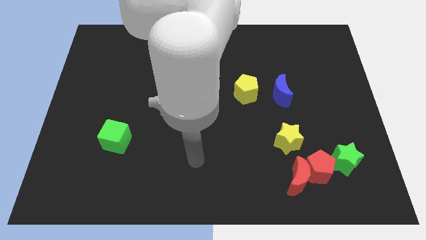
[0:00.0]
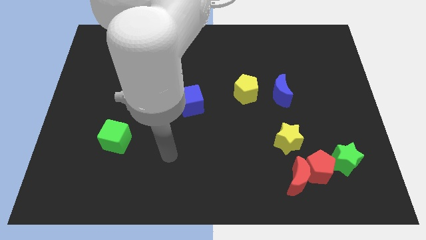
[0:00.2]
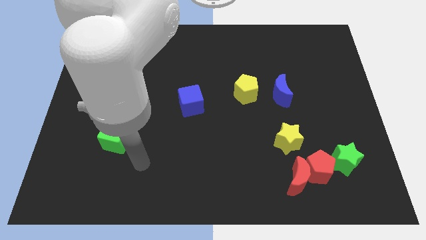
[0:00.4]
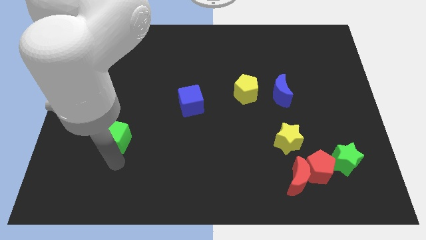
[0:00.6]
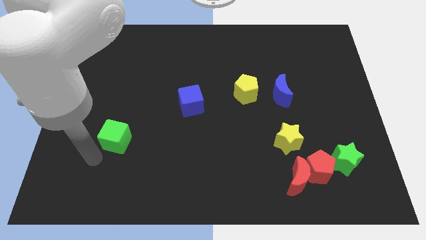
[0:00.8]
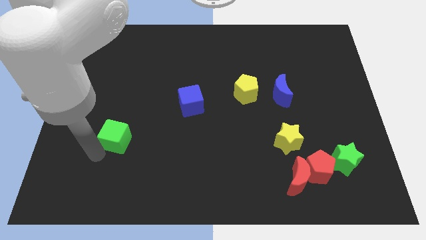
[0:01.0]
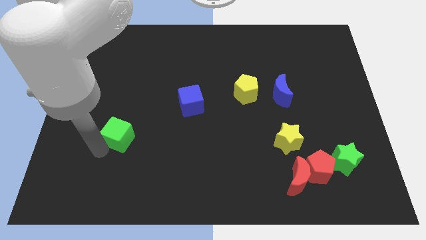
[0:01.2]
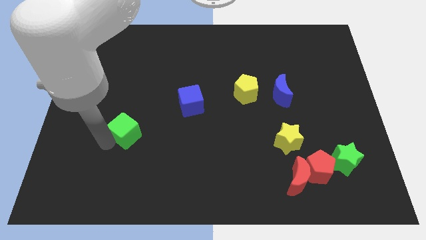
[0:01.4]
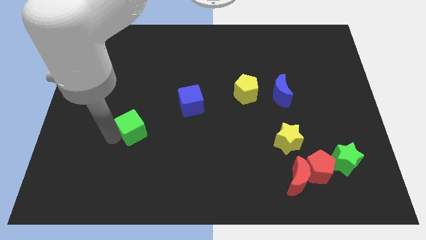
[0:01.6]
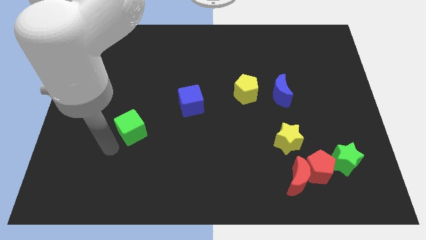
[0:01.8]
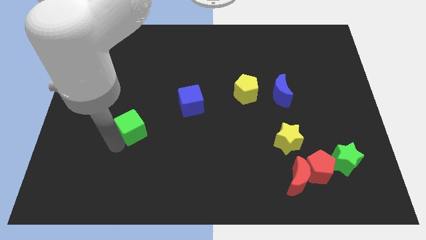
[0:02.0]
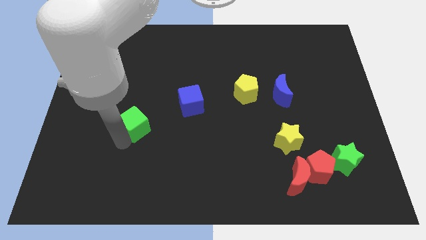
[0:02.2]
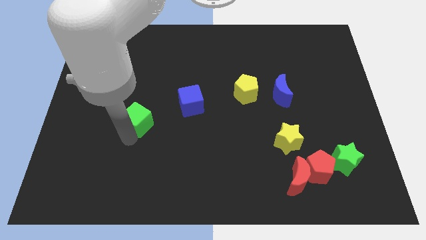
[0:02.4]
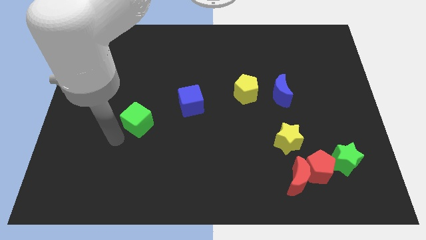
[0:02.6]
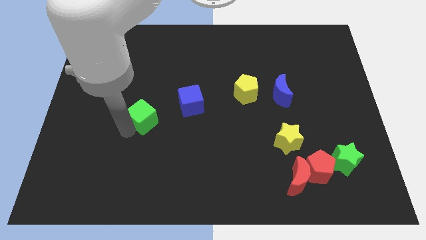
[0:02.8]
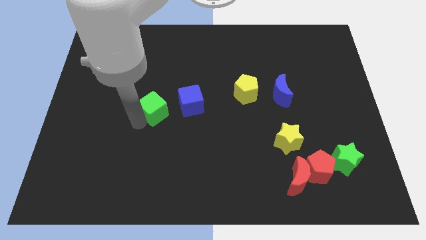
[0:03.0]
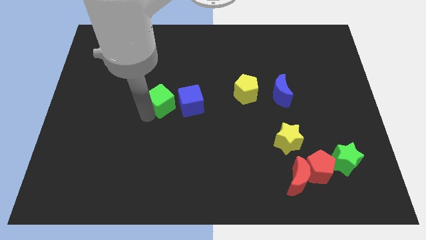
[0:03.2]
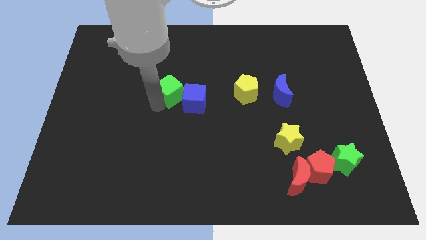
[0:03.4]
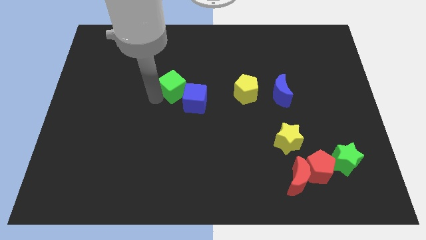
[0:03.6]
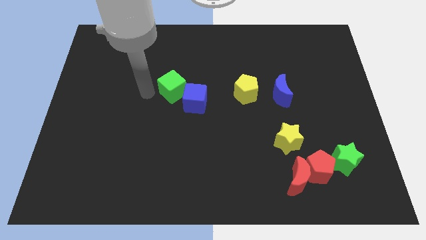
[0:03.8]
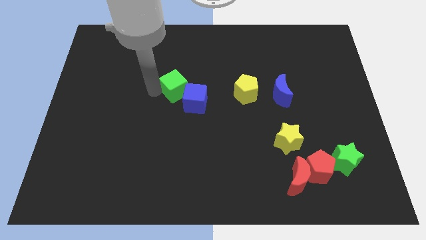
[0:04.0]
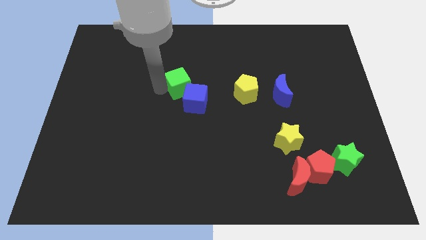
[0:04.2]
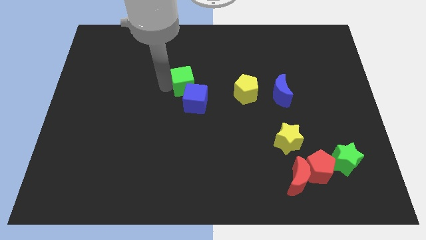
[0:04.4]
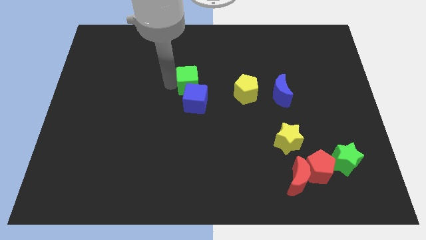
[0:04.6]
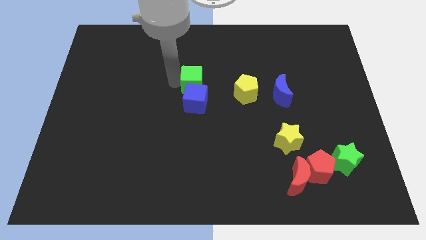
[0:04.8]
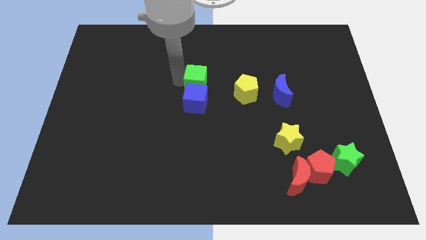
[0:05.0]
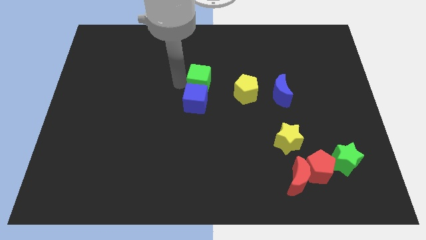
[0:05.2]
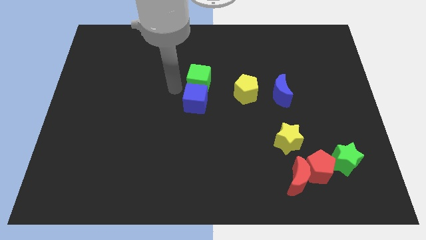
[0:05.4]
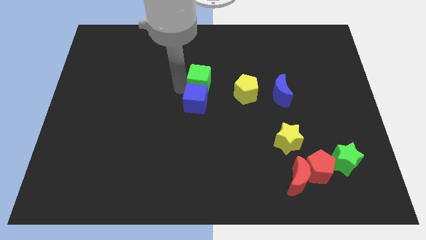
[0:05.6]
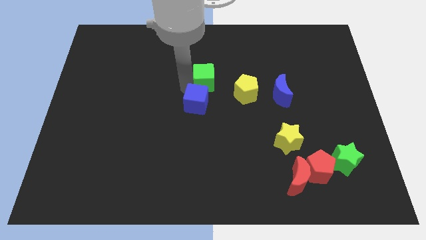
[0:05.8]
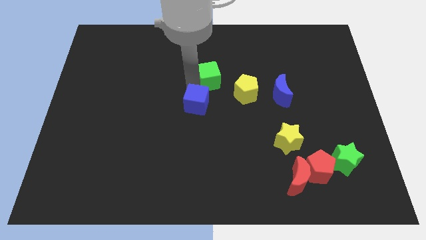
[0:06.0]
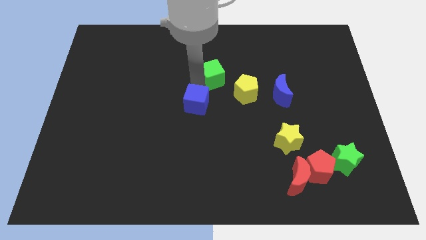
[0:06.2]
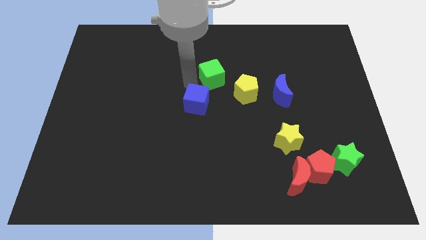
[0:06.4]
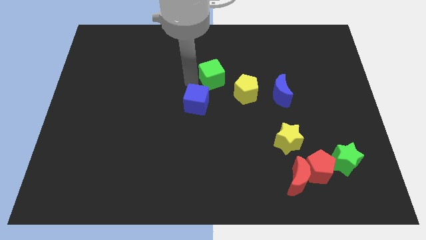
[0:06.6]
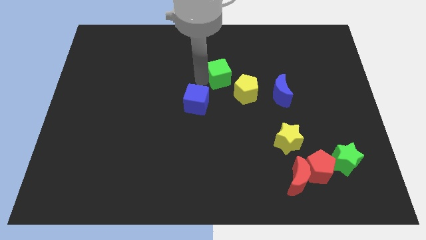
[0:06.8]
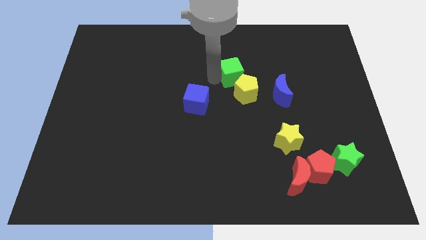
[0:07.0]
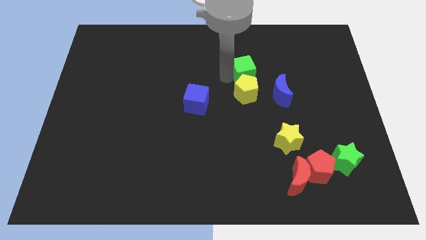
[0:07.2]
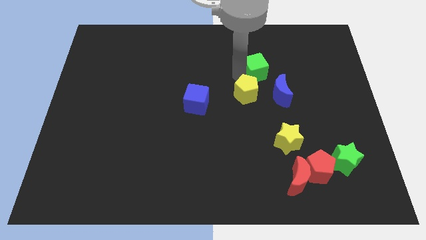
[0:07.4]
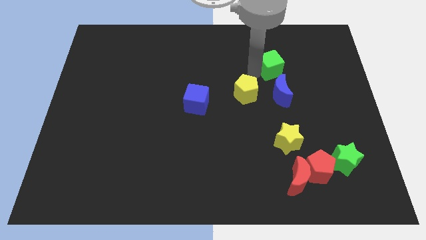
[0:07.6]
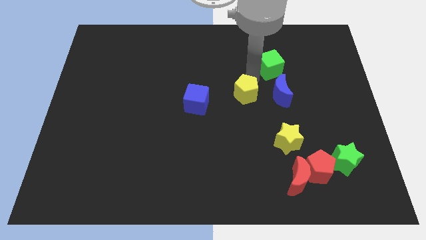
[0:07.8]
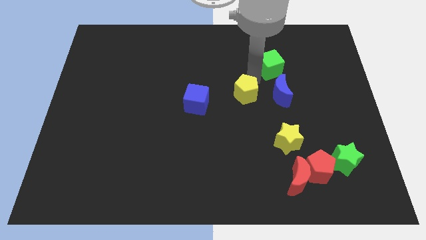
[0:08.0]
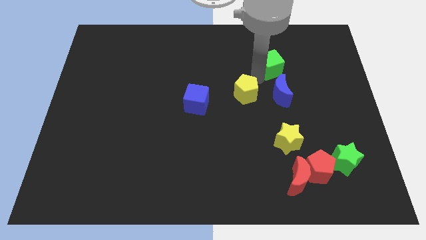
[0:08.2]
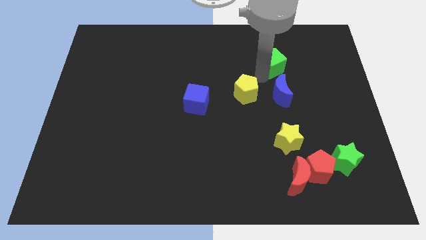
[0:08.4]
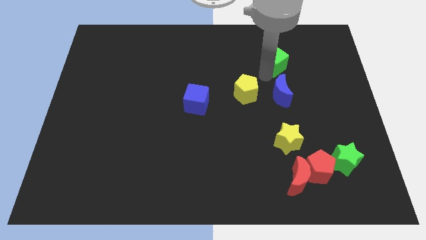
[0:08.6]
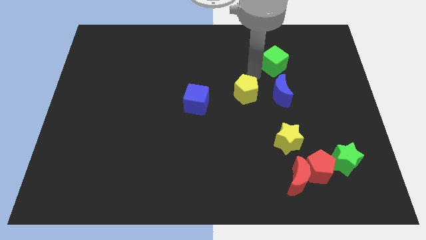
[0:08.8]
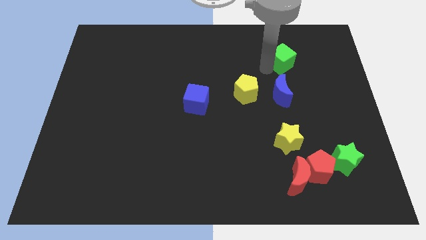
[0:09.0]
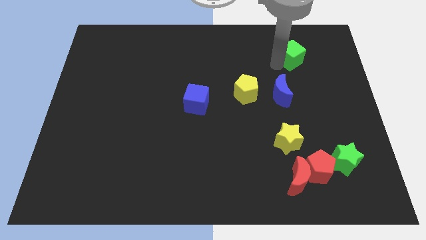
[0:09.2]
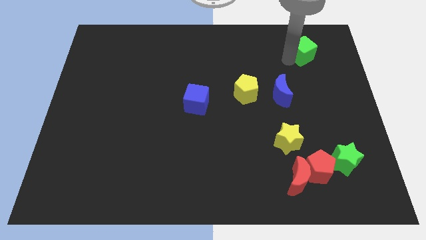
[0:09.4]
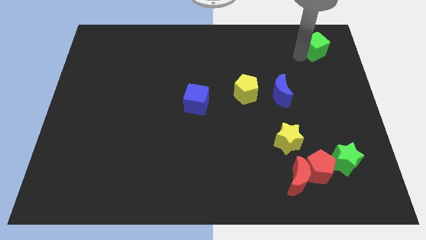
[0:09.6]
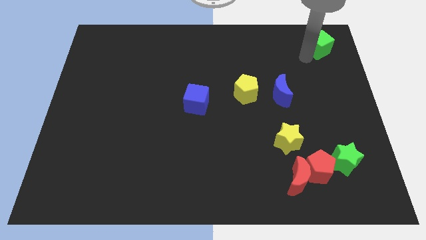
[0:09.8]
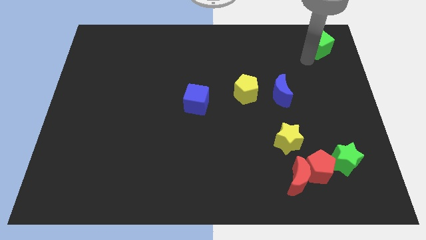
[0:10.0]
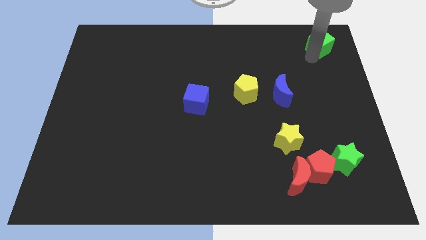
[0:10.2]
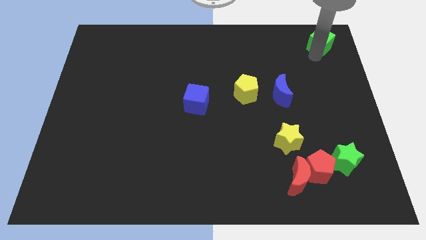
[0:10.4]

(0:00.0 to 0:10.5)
move the green cube to the top right corner
